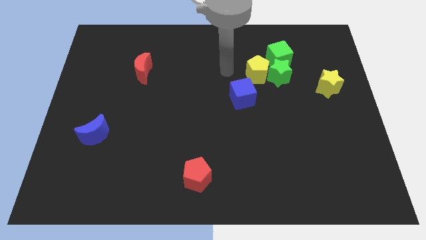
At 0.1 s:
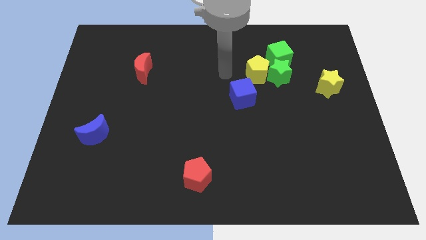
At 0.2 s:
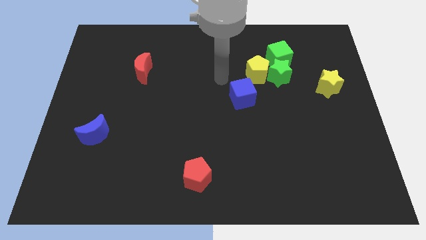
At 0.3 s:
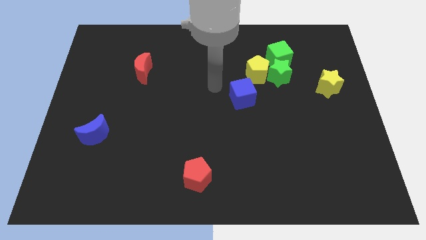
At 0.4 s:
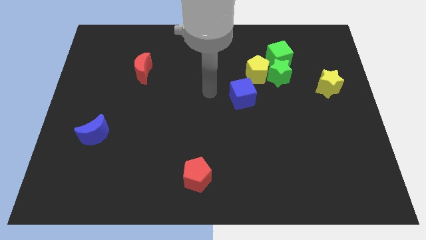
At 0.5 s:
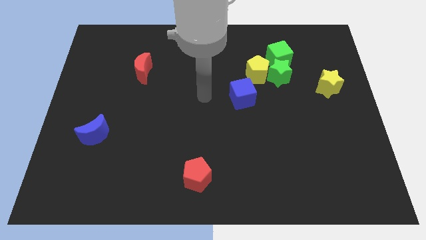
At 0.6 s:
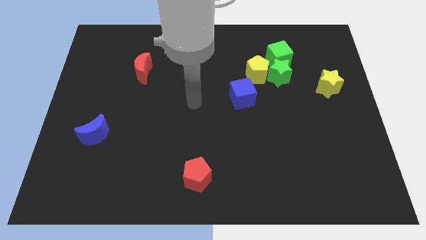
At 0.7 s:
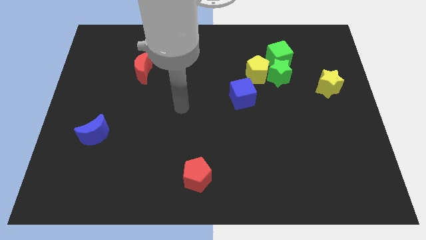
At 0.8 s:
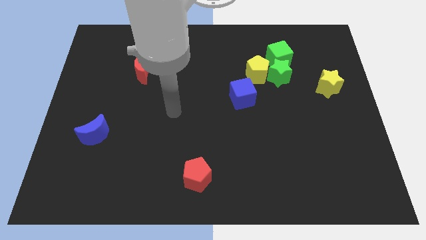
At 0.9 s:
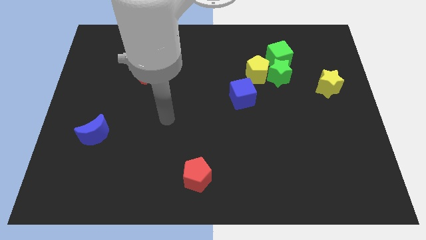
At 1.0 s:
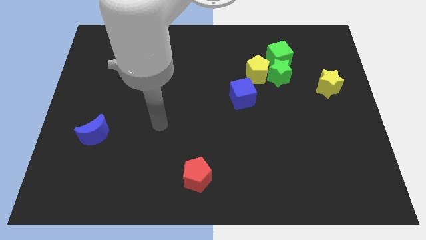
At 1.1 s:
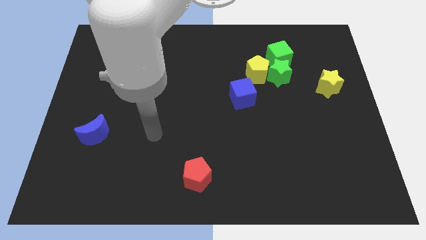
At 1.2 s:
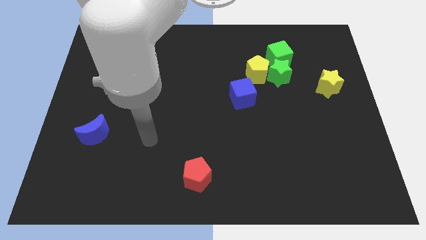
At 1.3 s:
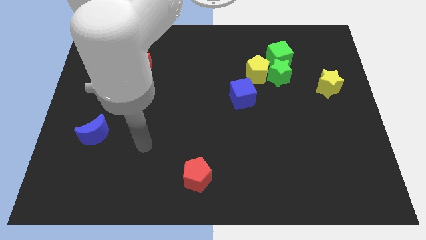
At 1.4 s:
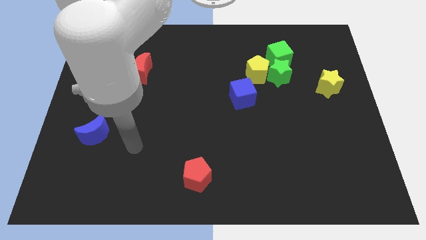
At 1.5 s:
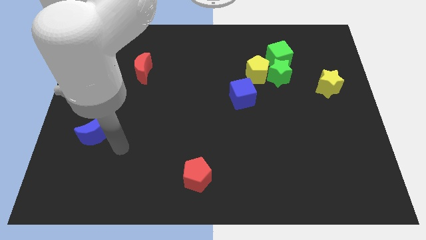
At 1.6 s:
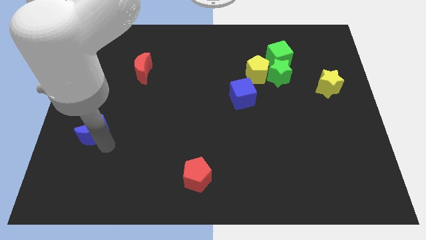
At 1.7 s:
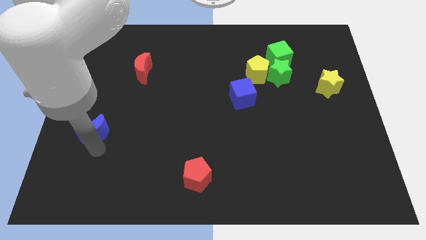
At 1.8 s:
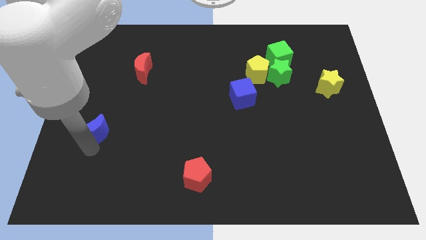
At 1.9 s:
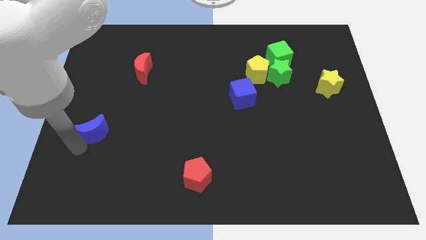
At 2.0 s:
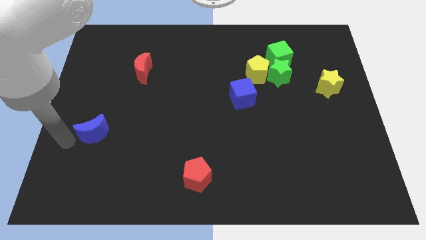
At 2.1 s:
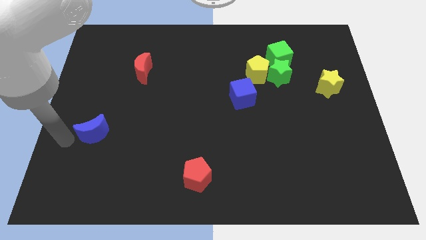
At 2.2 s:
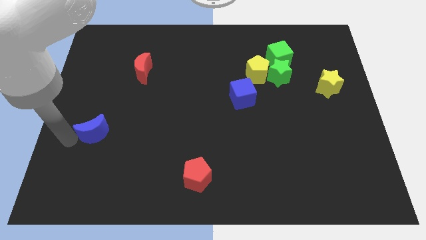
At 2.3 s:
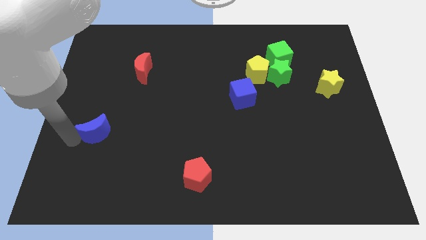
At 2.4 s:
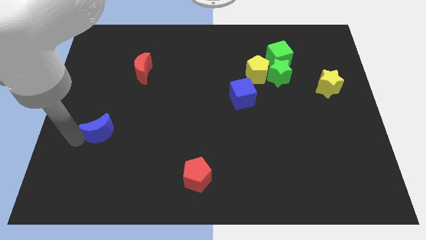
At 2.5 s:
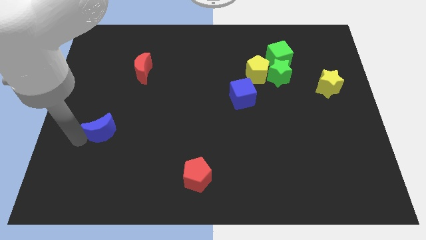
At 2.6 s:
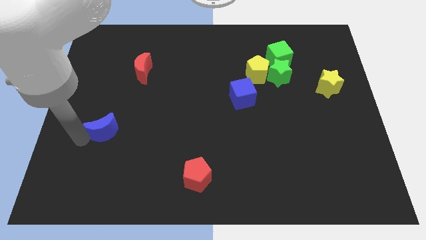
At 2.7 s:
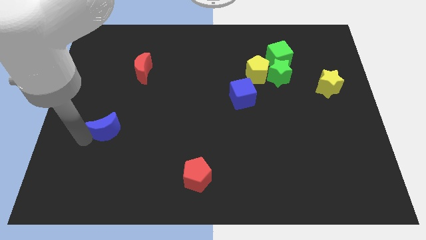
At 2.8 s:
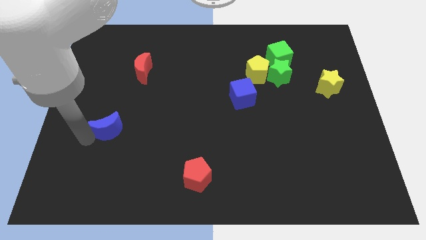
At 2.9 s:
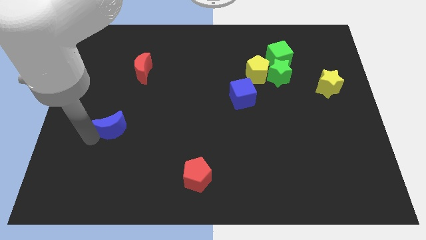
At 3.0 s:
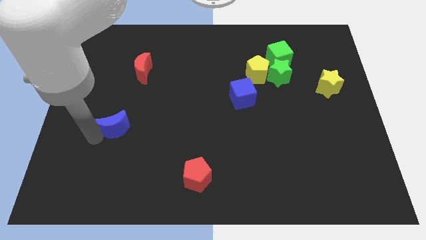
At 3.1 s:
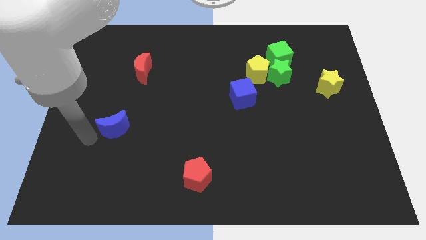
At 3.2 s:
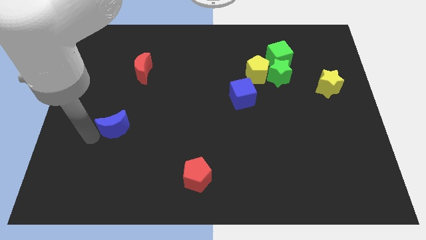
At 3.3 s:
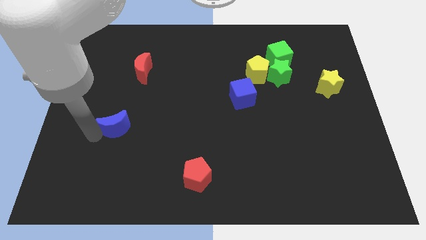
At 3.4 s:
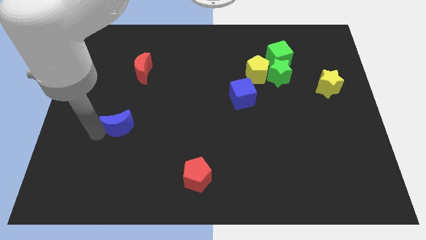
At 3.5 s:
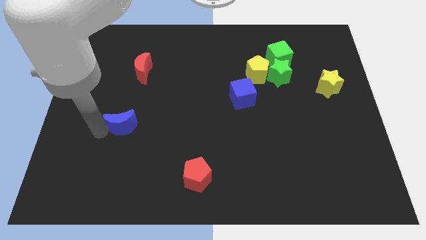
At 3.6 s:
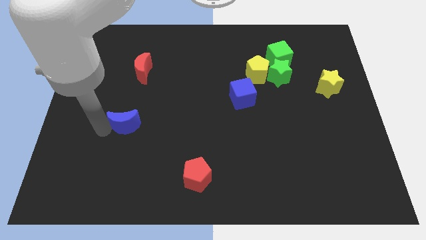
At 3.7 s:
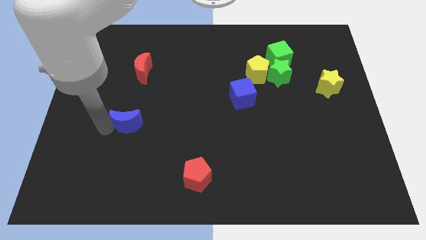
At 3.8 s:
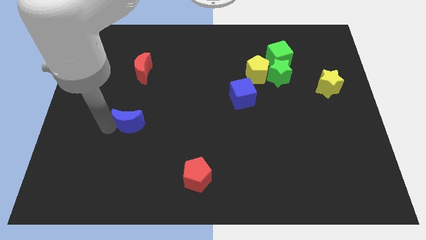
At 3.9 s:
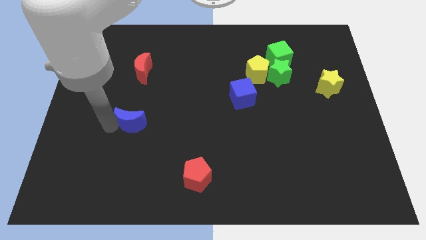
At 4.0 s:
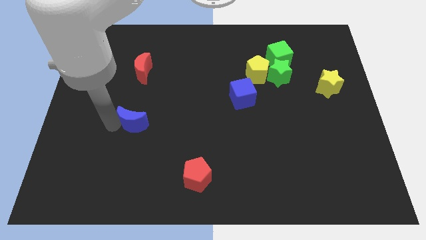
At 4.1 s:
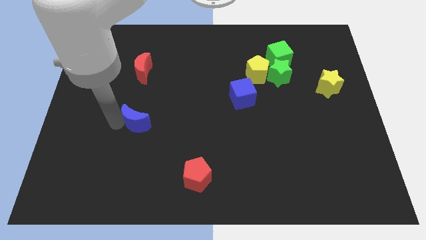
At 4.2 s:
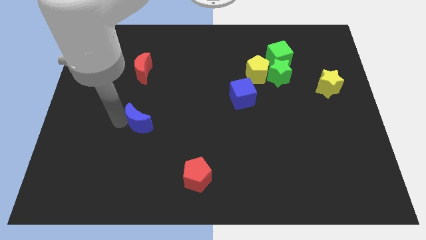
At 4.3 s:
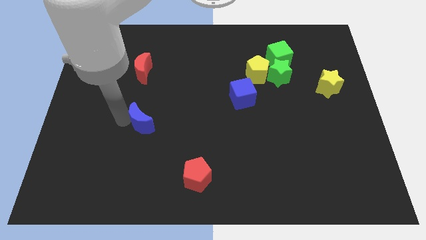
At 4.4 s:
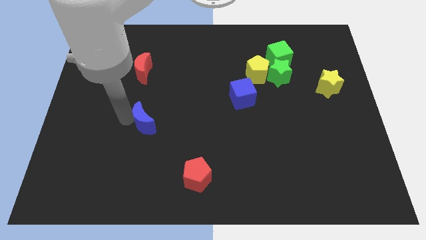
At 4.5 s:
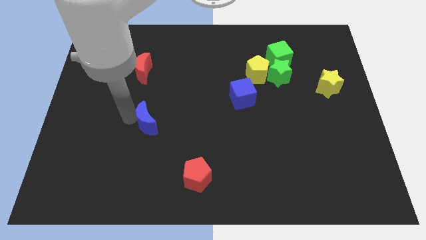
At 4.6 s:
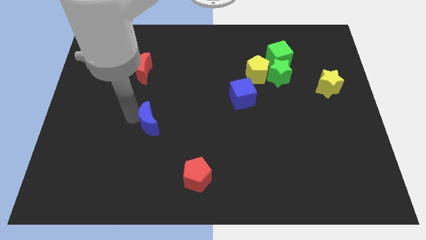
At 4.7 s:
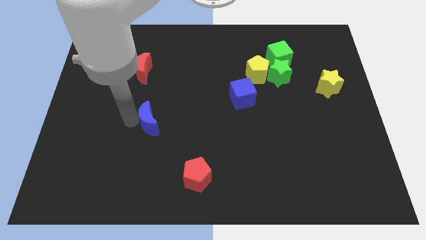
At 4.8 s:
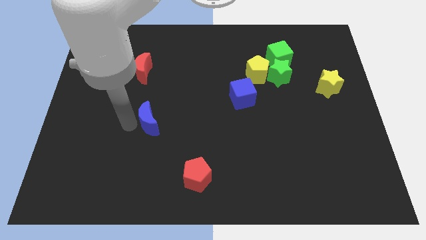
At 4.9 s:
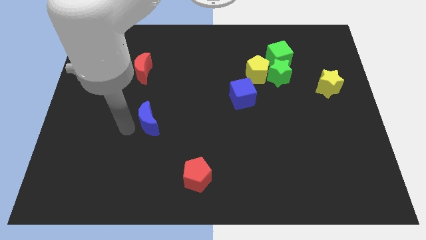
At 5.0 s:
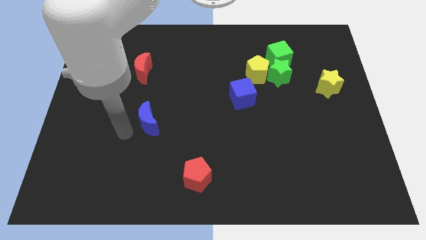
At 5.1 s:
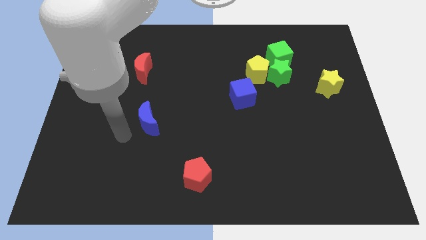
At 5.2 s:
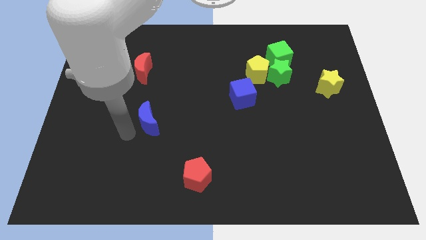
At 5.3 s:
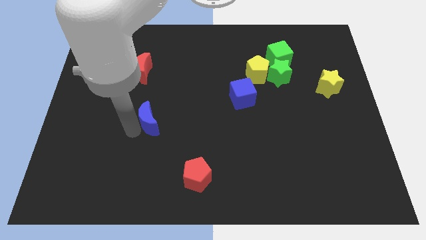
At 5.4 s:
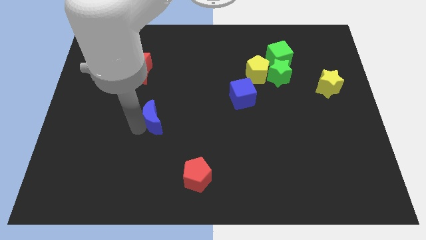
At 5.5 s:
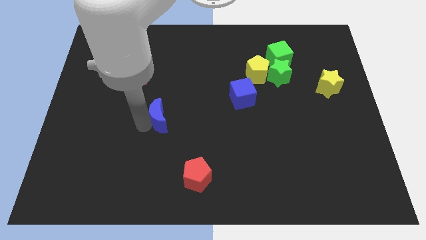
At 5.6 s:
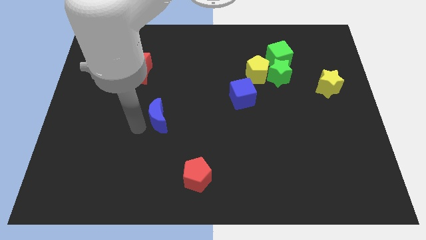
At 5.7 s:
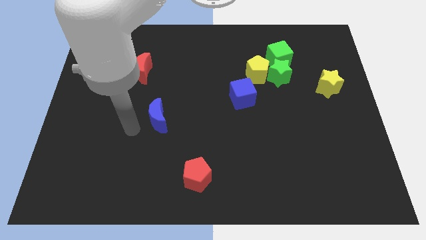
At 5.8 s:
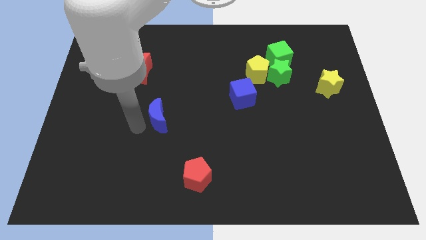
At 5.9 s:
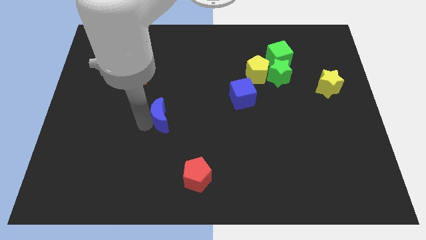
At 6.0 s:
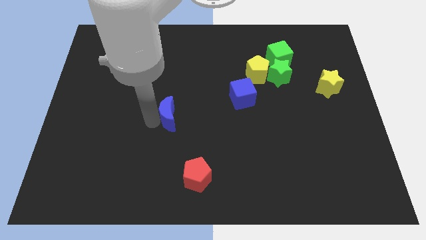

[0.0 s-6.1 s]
slide the blue moon to the middle of the board

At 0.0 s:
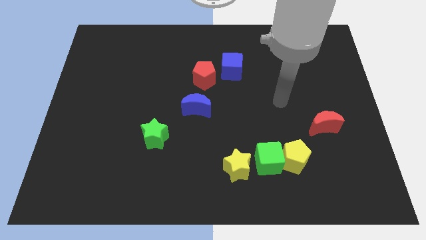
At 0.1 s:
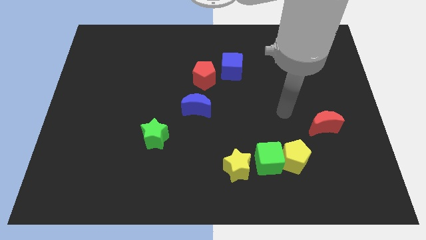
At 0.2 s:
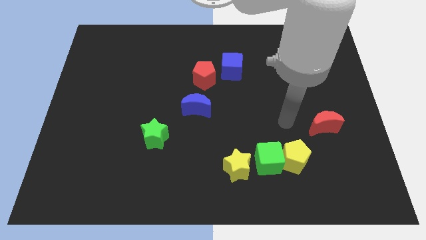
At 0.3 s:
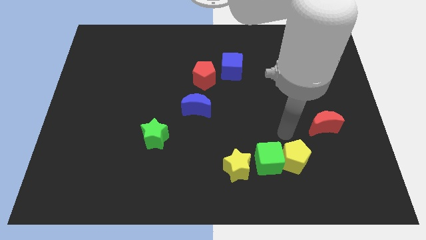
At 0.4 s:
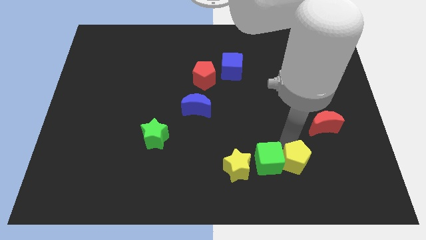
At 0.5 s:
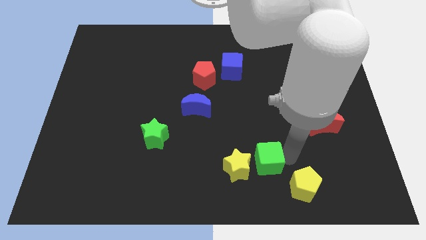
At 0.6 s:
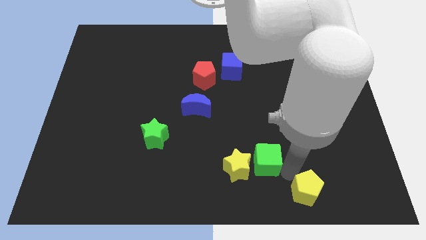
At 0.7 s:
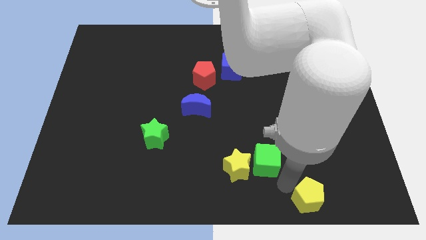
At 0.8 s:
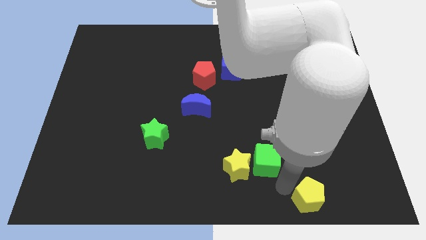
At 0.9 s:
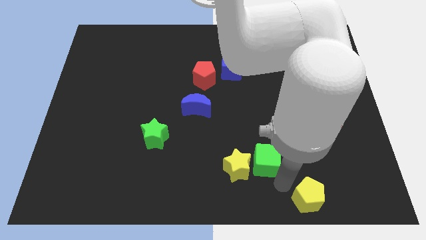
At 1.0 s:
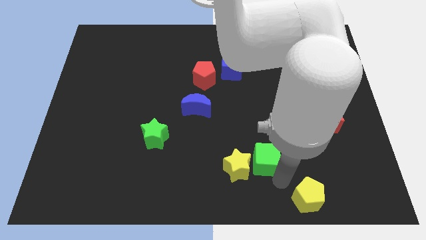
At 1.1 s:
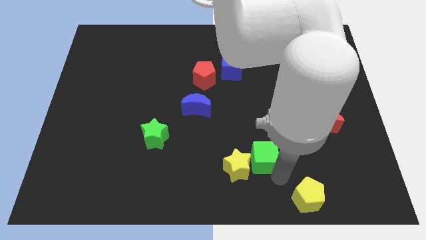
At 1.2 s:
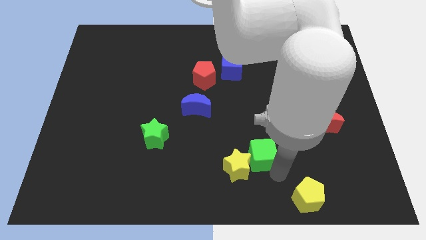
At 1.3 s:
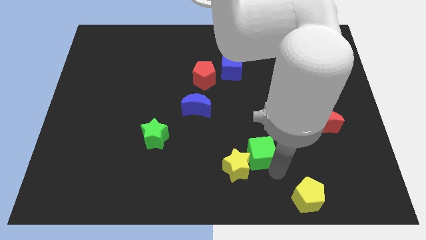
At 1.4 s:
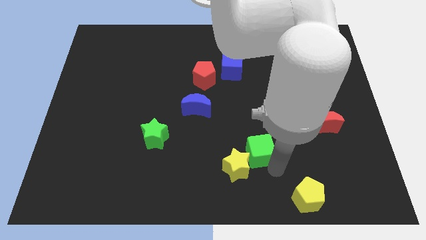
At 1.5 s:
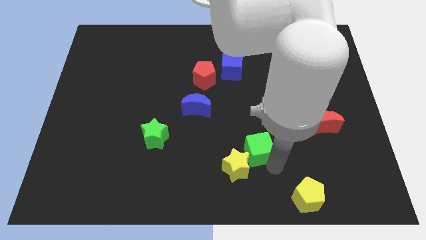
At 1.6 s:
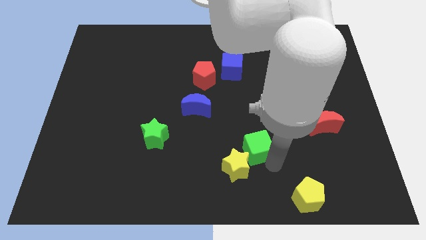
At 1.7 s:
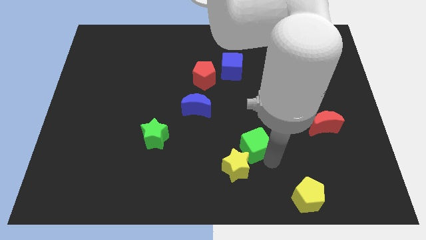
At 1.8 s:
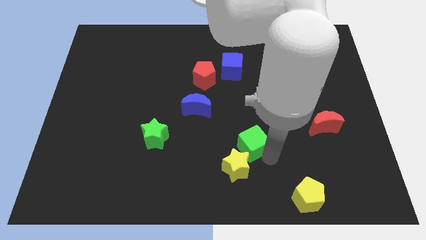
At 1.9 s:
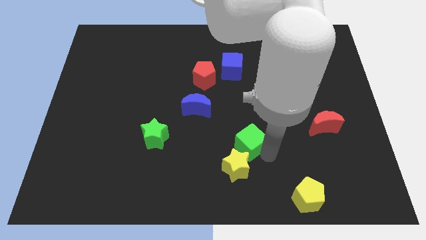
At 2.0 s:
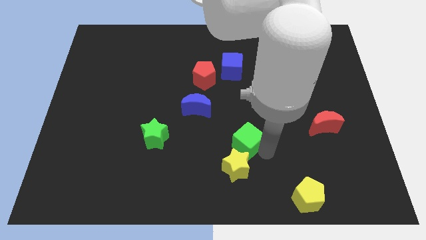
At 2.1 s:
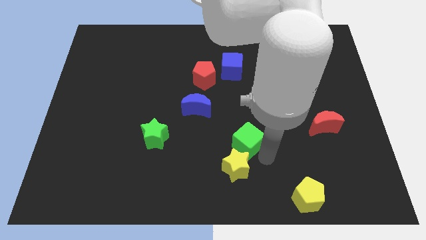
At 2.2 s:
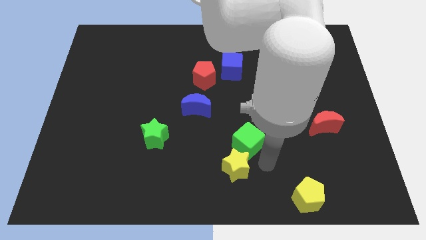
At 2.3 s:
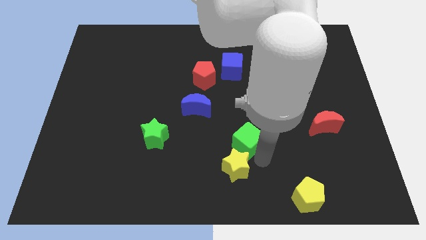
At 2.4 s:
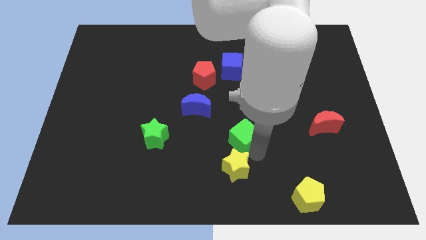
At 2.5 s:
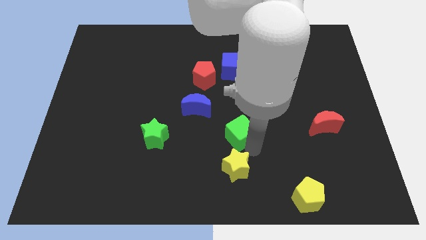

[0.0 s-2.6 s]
slide the green cube to the middle of the board
